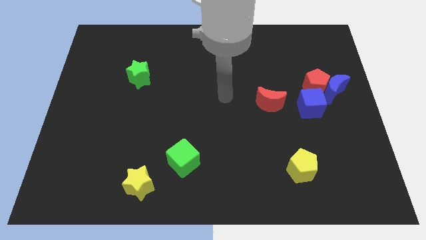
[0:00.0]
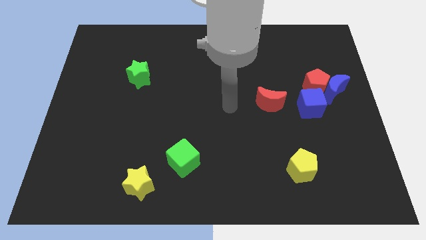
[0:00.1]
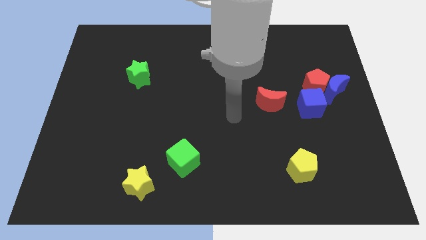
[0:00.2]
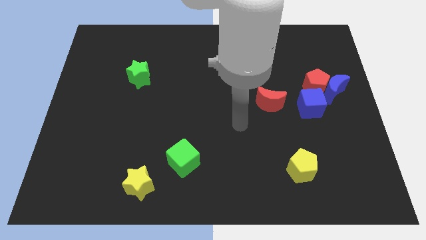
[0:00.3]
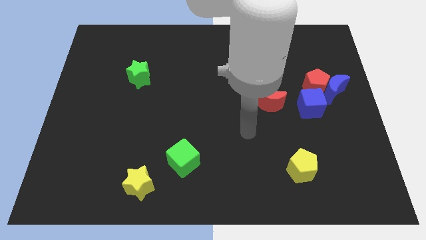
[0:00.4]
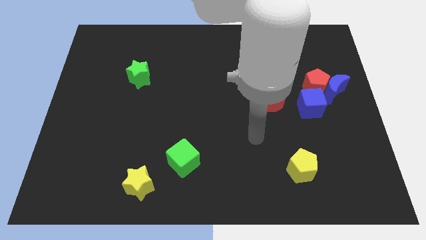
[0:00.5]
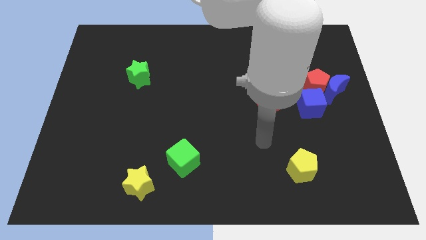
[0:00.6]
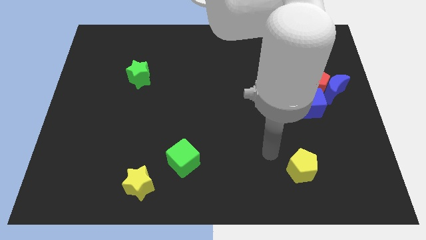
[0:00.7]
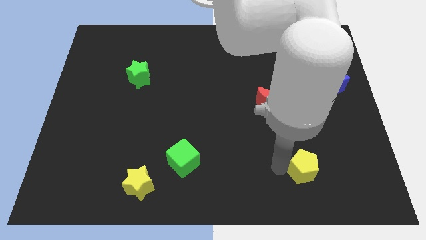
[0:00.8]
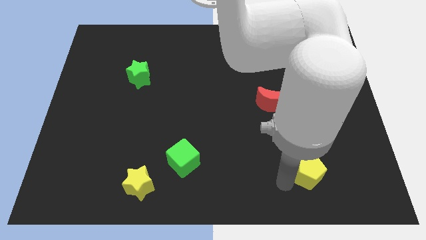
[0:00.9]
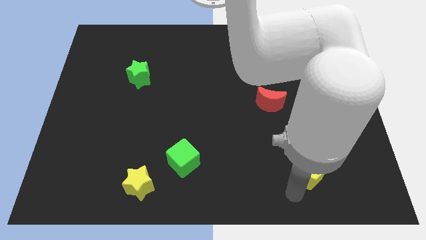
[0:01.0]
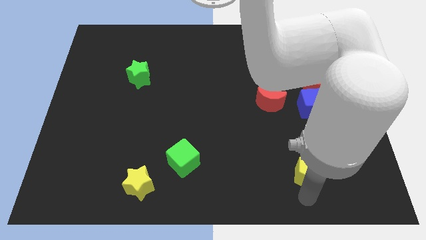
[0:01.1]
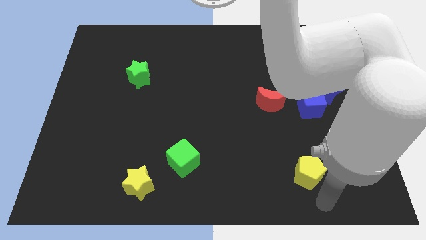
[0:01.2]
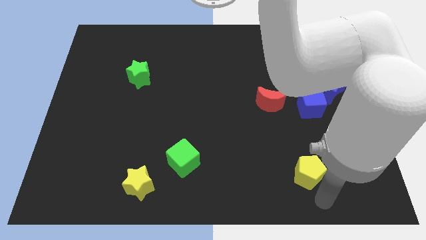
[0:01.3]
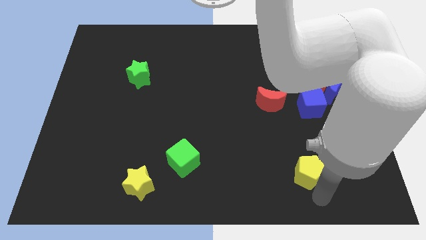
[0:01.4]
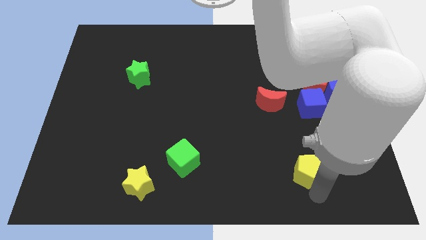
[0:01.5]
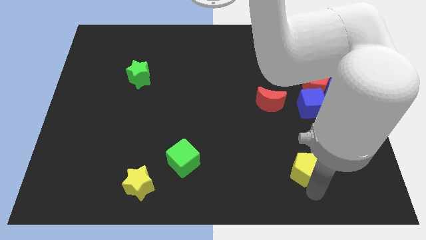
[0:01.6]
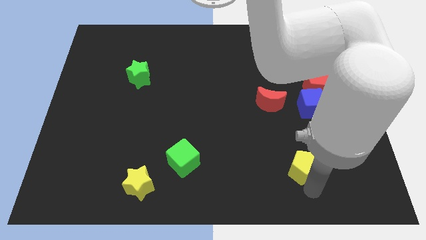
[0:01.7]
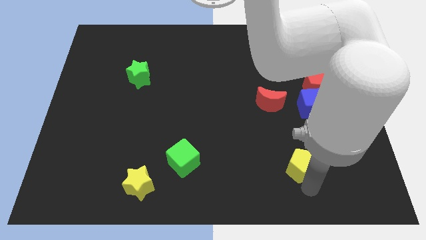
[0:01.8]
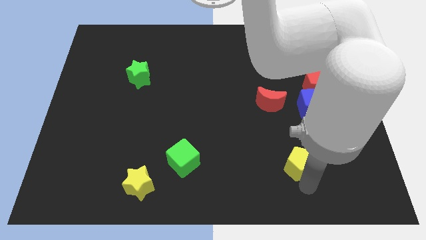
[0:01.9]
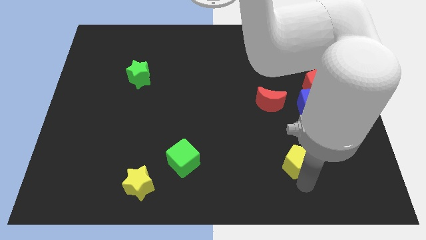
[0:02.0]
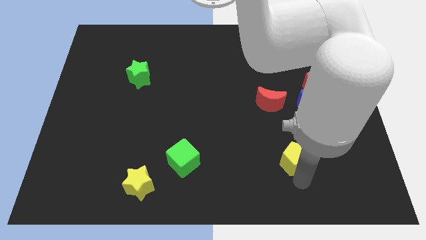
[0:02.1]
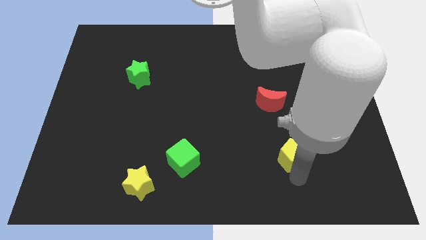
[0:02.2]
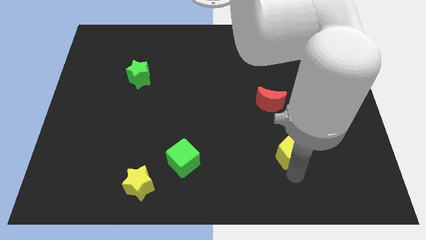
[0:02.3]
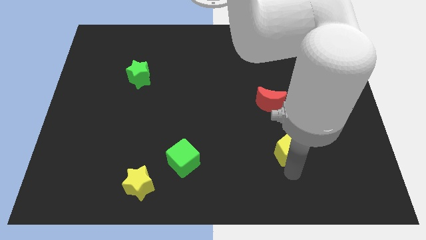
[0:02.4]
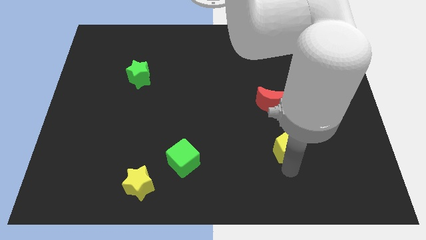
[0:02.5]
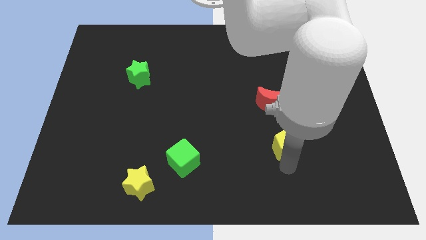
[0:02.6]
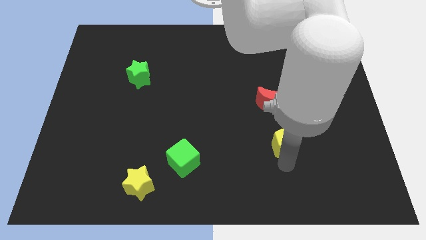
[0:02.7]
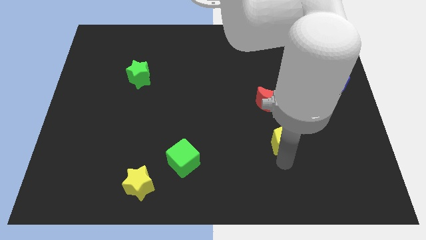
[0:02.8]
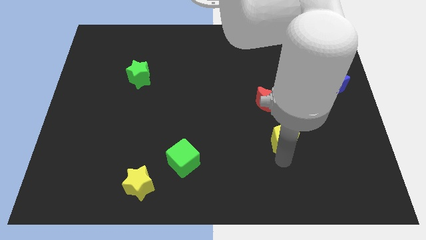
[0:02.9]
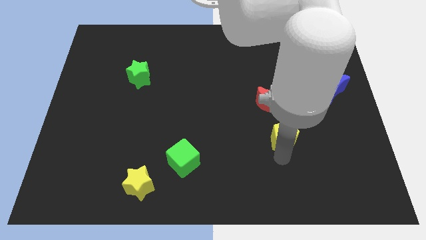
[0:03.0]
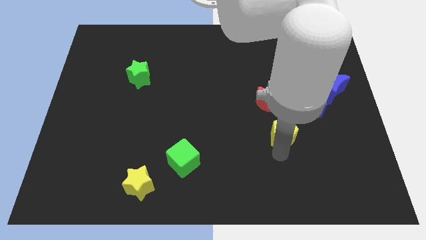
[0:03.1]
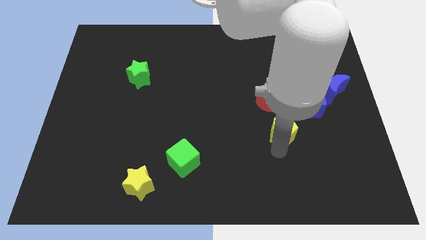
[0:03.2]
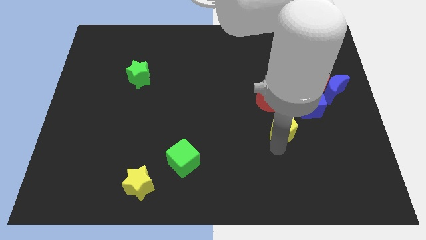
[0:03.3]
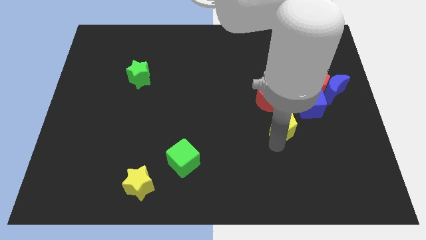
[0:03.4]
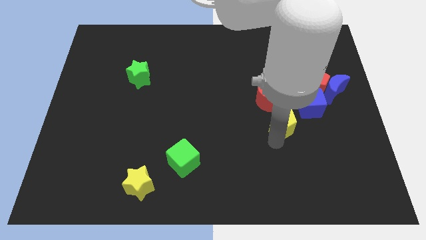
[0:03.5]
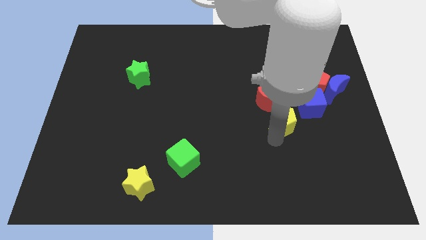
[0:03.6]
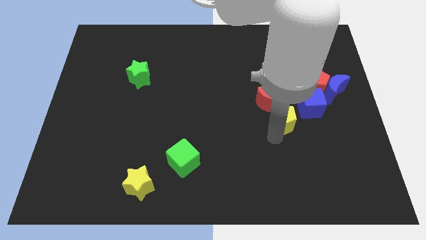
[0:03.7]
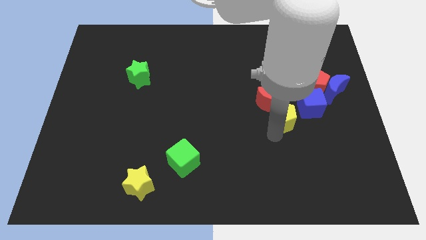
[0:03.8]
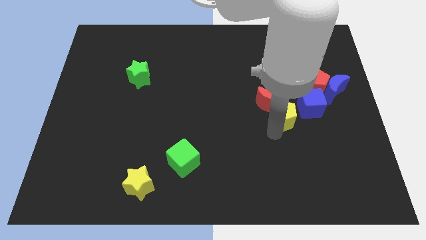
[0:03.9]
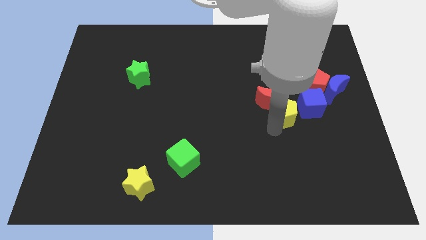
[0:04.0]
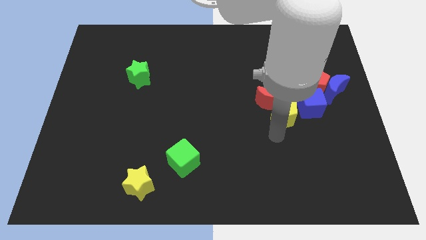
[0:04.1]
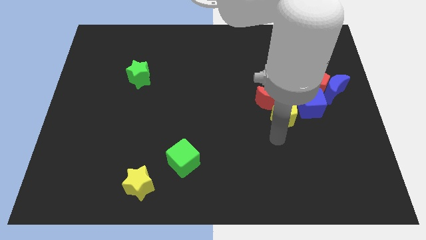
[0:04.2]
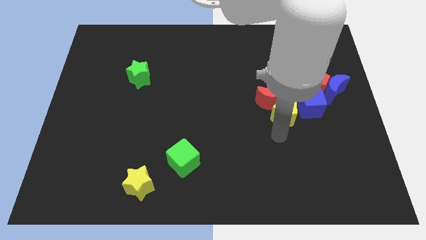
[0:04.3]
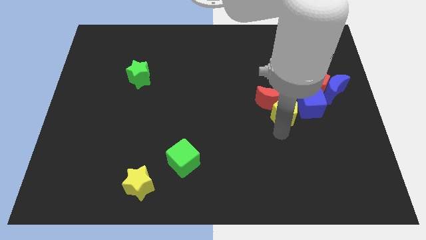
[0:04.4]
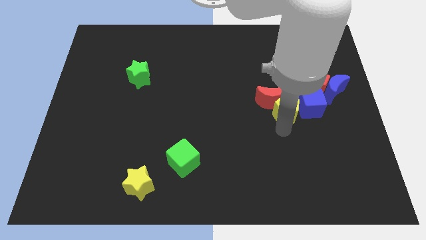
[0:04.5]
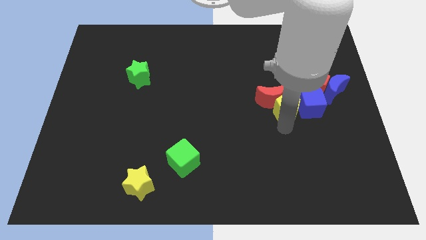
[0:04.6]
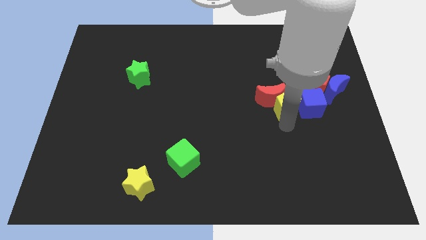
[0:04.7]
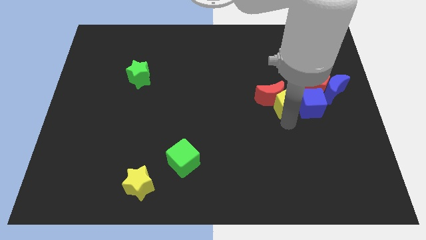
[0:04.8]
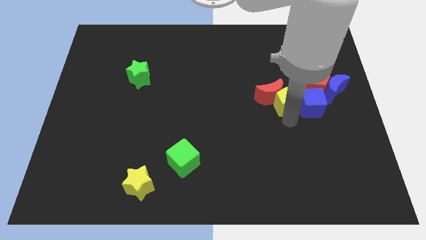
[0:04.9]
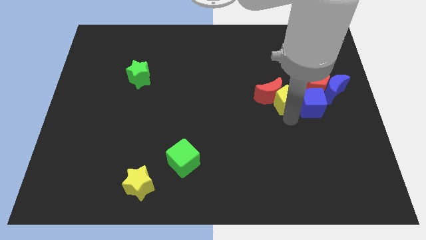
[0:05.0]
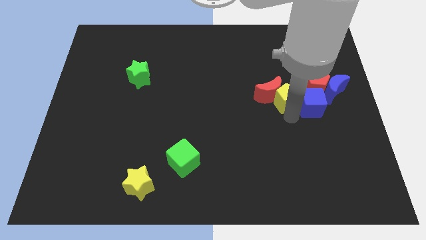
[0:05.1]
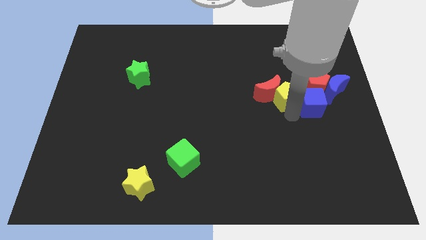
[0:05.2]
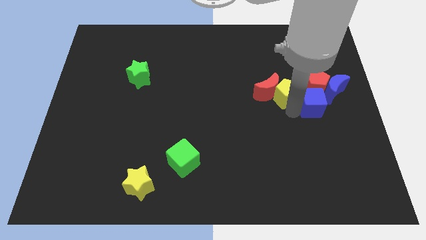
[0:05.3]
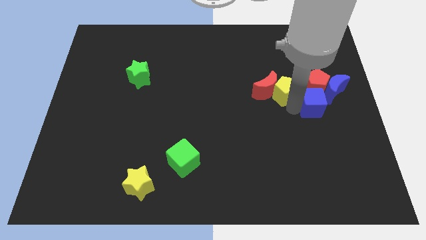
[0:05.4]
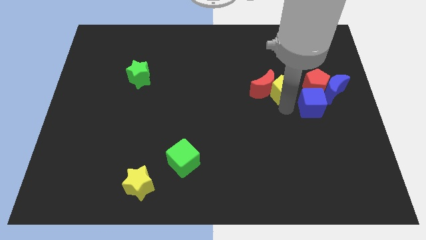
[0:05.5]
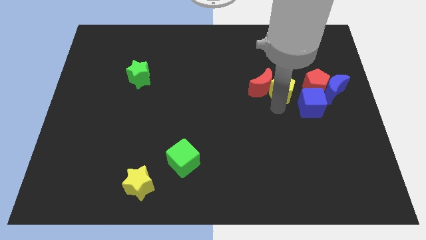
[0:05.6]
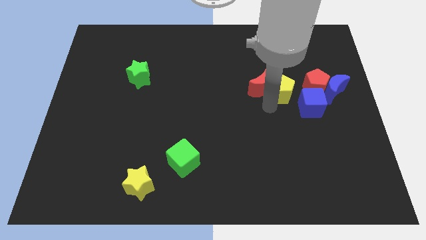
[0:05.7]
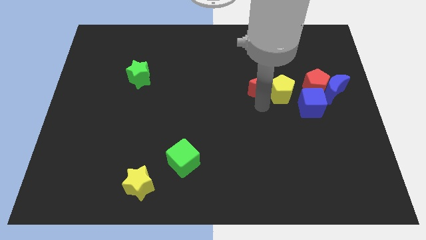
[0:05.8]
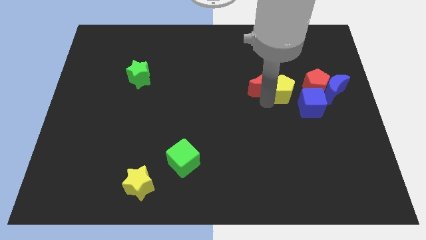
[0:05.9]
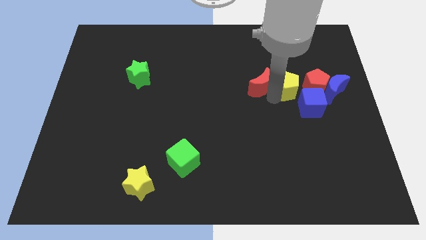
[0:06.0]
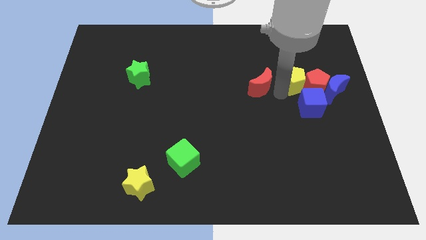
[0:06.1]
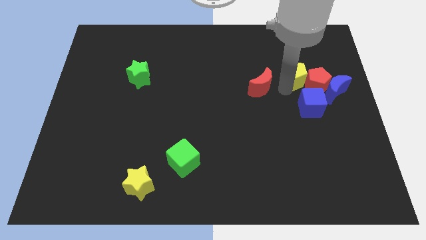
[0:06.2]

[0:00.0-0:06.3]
move the yellow pentagon to the top left of the blue moon

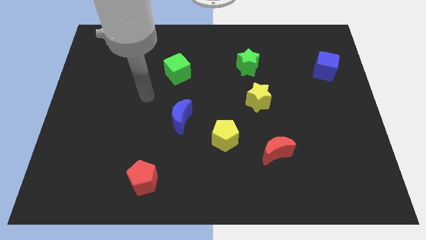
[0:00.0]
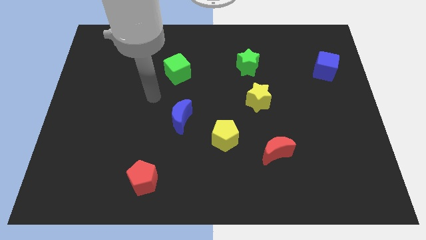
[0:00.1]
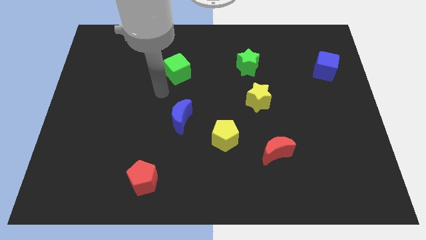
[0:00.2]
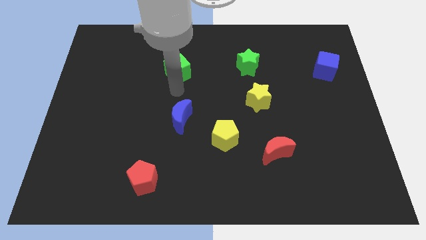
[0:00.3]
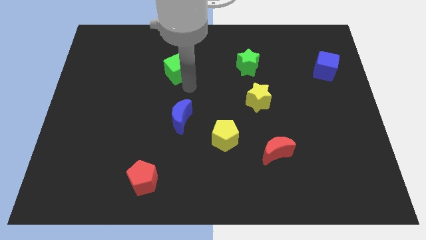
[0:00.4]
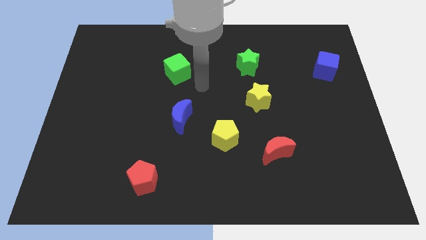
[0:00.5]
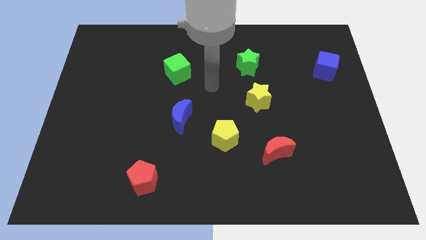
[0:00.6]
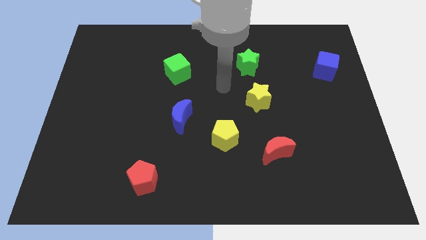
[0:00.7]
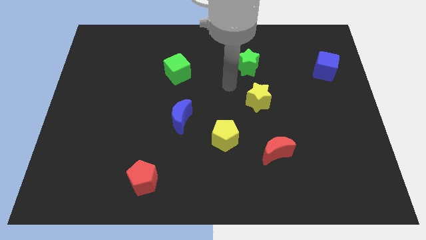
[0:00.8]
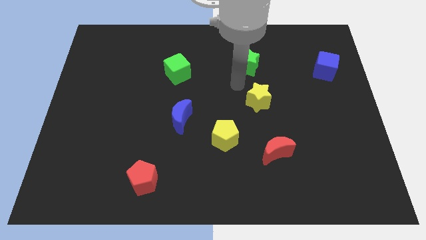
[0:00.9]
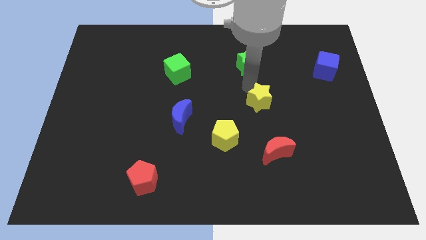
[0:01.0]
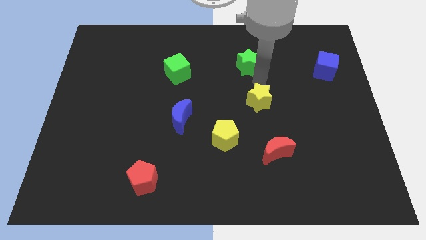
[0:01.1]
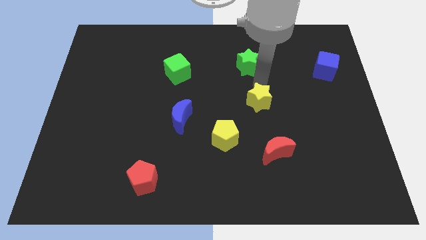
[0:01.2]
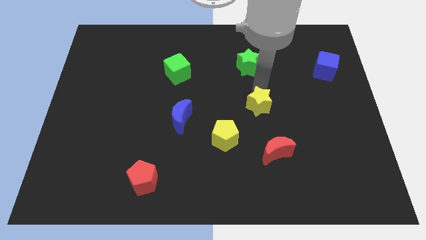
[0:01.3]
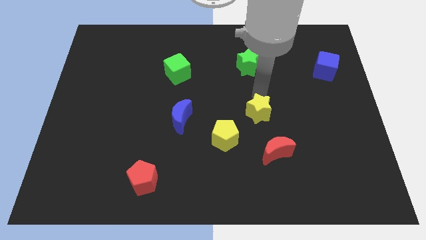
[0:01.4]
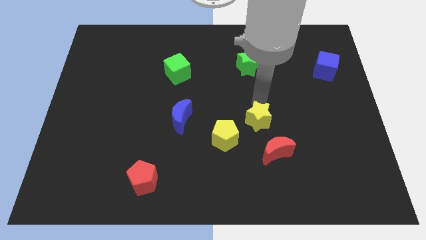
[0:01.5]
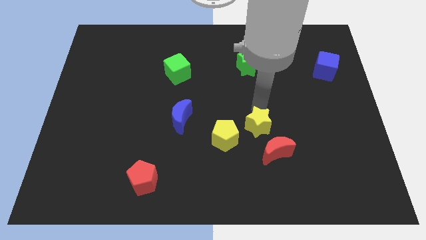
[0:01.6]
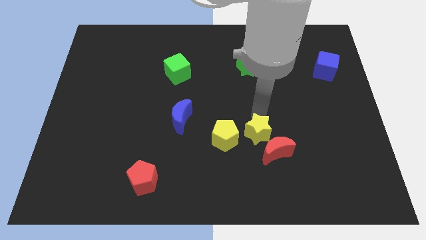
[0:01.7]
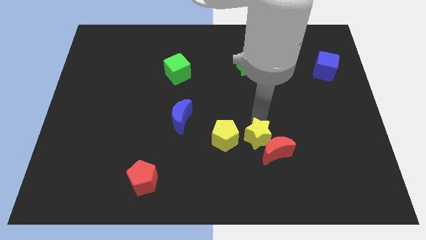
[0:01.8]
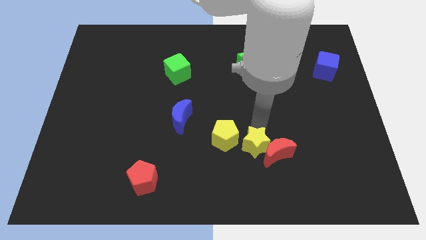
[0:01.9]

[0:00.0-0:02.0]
push the yellow star to the bottom left side of the red moon
